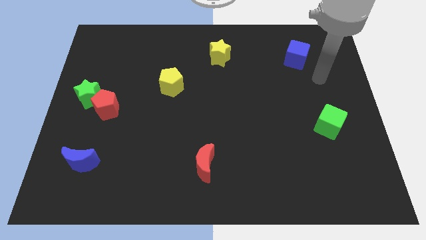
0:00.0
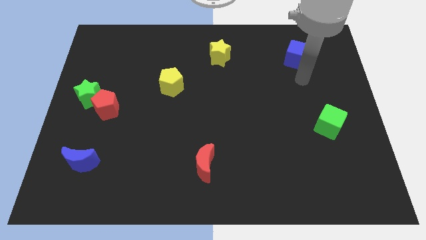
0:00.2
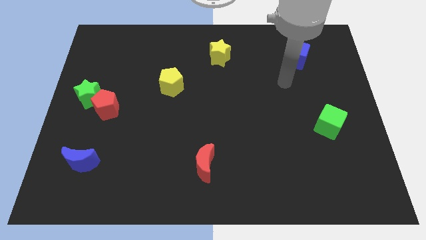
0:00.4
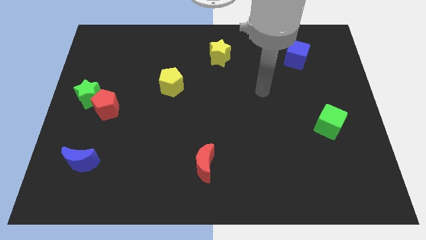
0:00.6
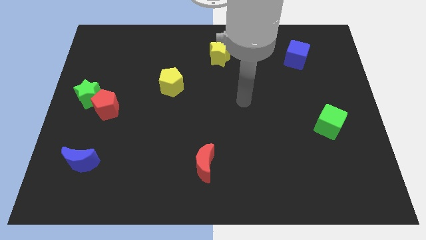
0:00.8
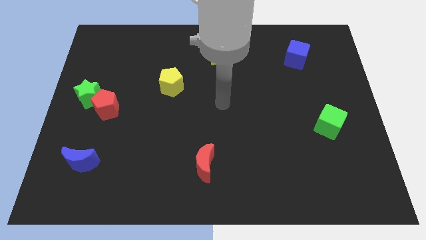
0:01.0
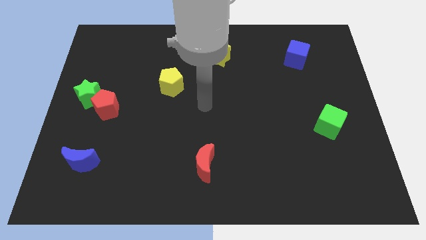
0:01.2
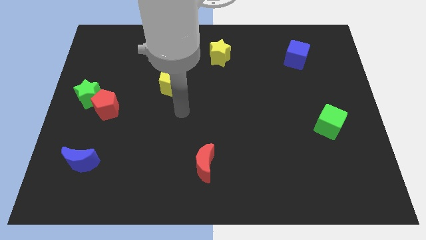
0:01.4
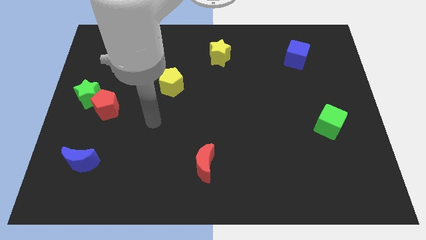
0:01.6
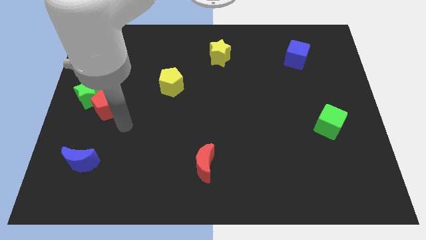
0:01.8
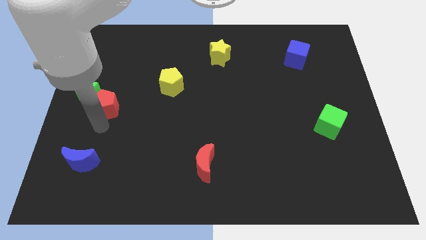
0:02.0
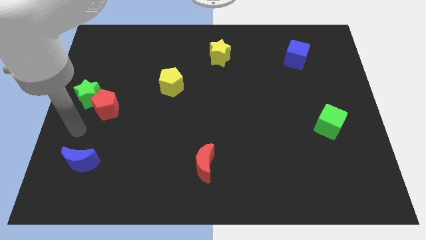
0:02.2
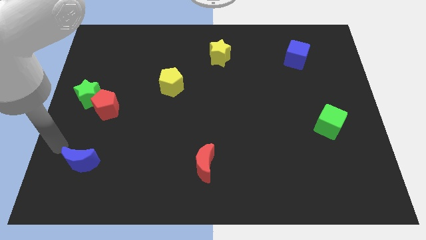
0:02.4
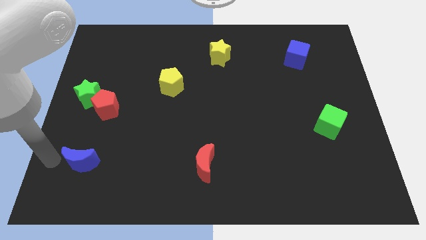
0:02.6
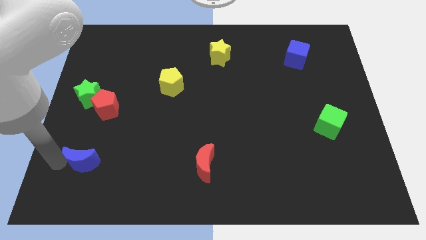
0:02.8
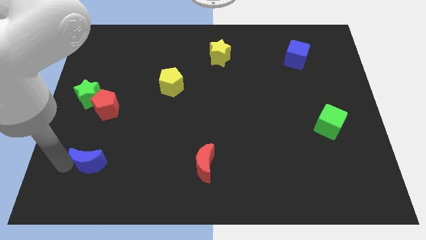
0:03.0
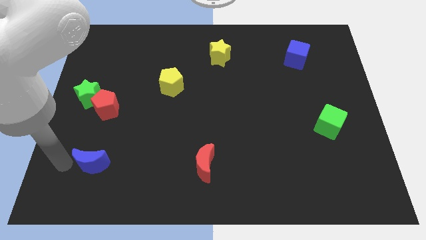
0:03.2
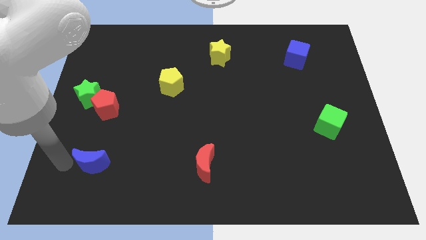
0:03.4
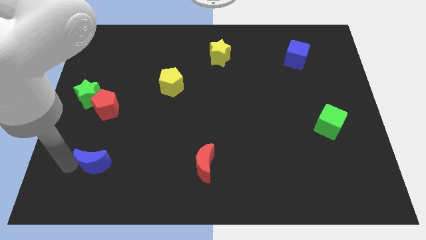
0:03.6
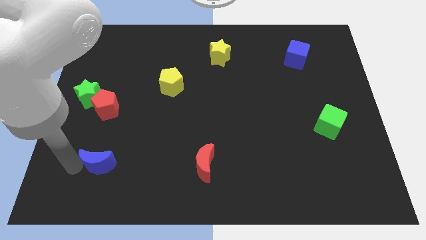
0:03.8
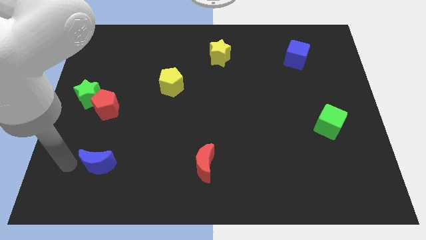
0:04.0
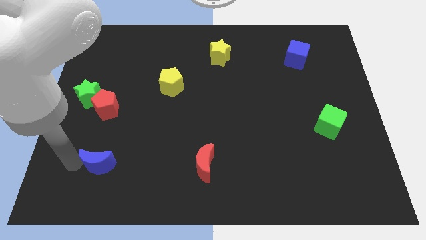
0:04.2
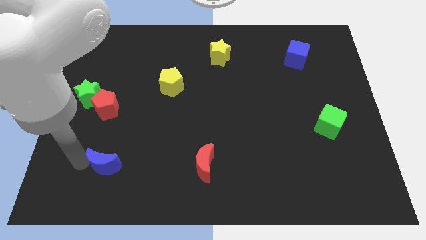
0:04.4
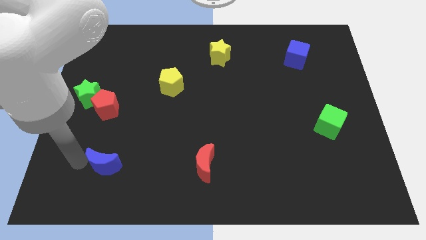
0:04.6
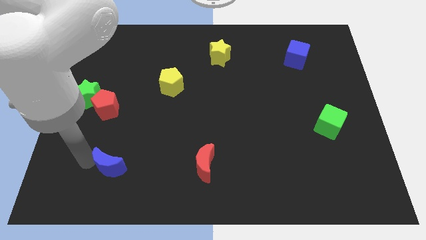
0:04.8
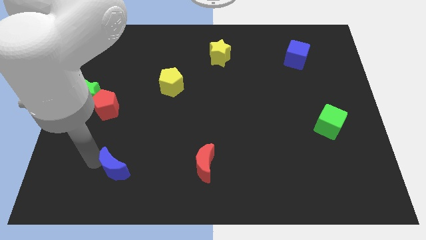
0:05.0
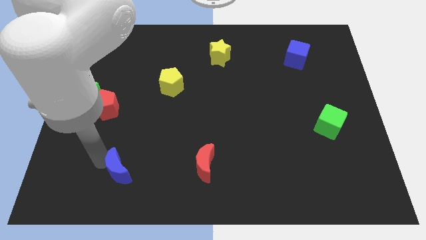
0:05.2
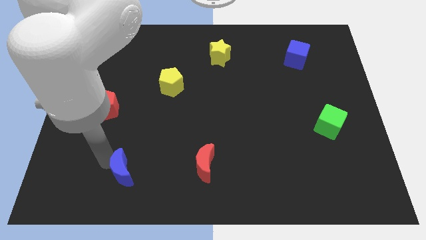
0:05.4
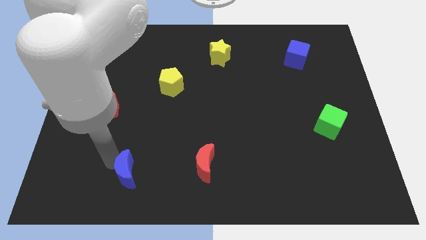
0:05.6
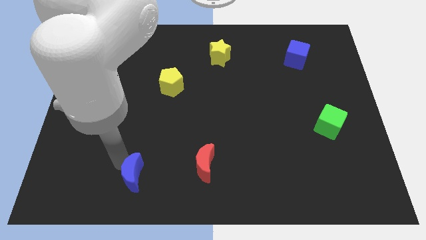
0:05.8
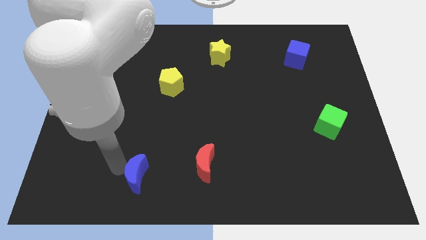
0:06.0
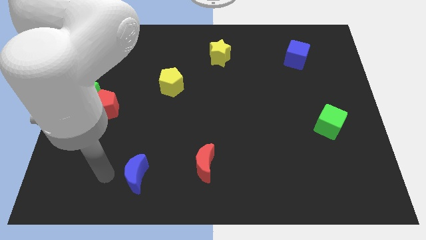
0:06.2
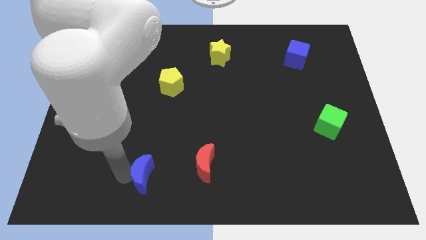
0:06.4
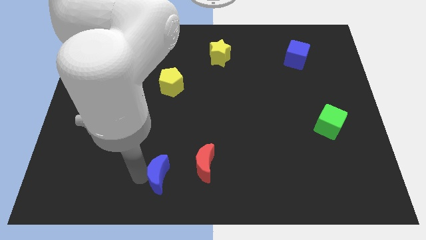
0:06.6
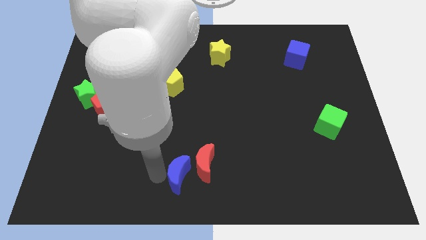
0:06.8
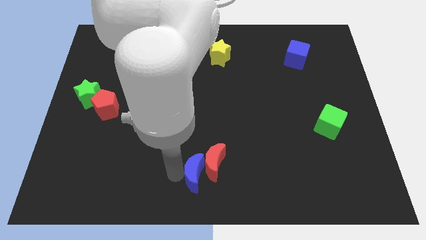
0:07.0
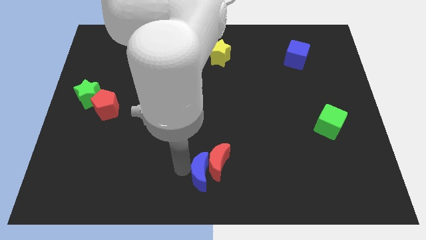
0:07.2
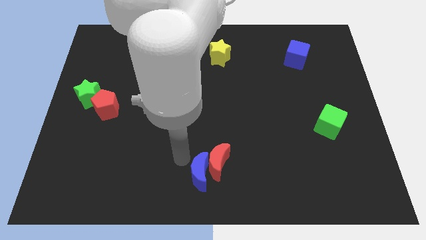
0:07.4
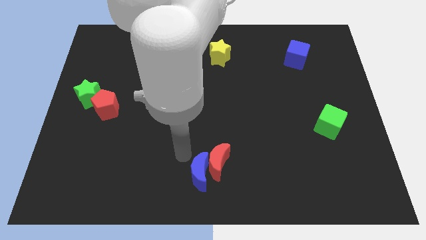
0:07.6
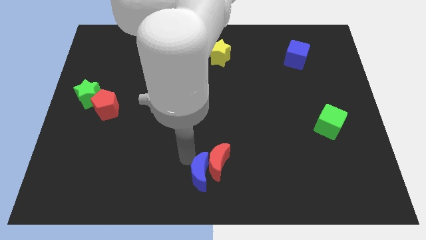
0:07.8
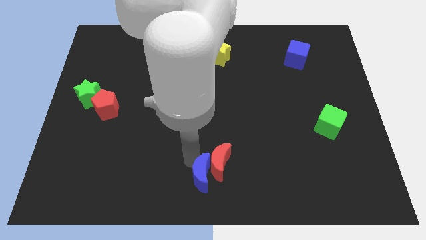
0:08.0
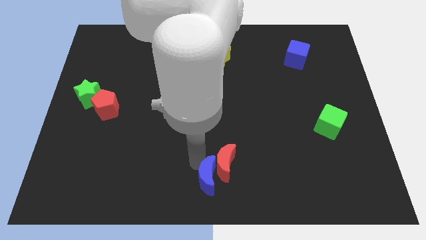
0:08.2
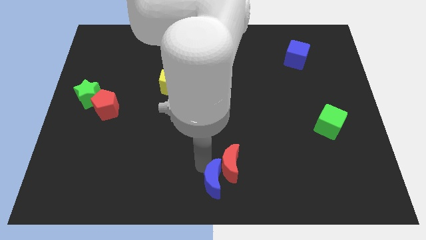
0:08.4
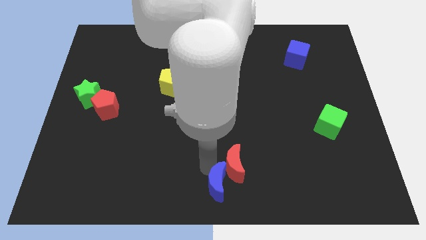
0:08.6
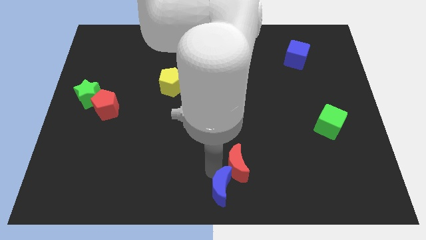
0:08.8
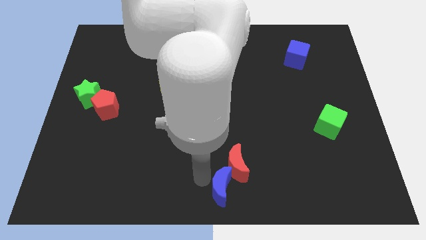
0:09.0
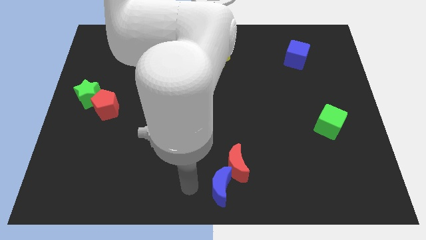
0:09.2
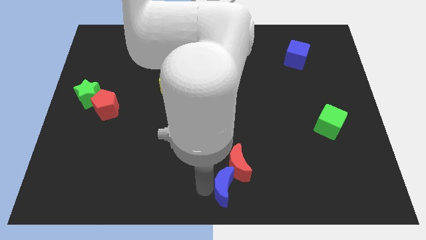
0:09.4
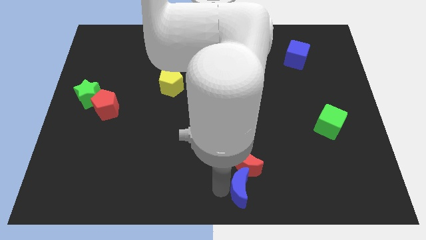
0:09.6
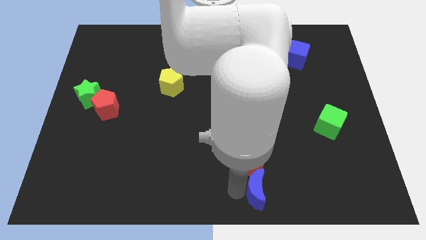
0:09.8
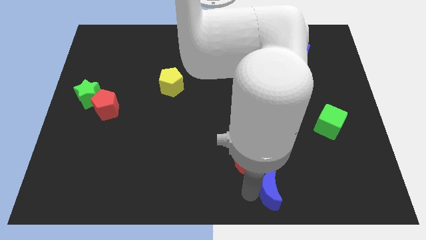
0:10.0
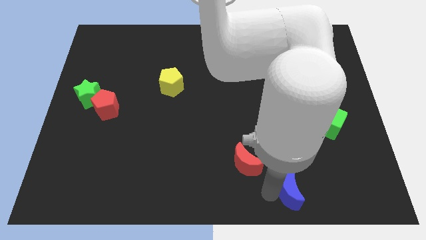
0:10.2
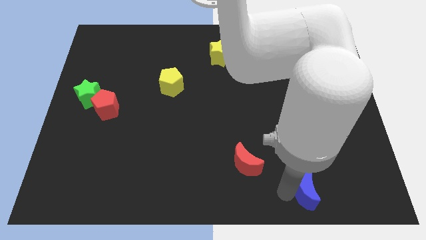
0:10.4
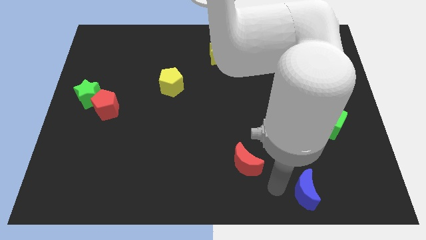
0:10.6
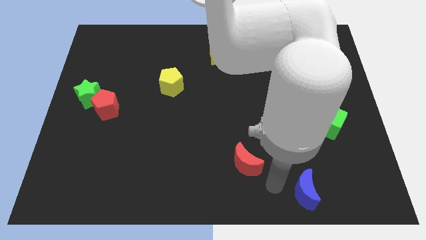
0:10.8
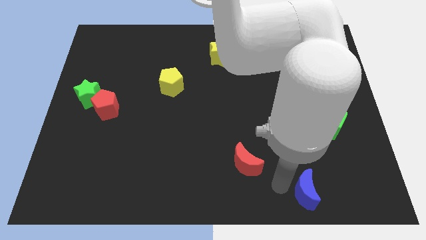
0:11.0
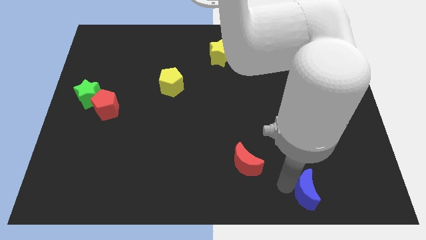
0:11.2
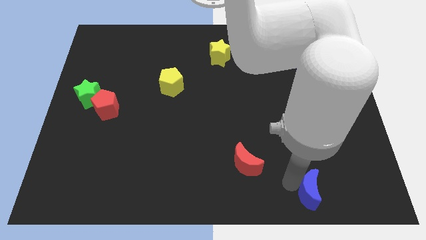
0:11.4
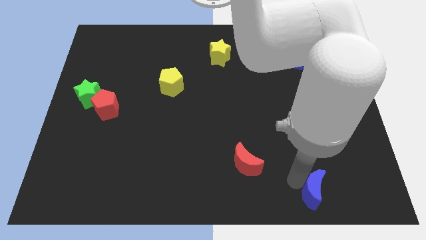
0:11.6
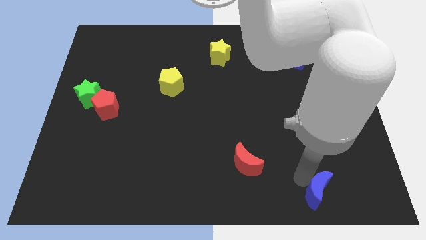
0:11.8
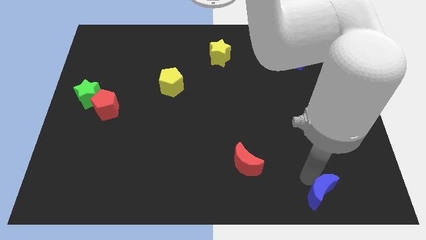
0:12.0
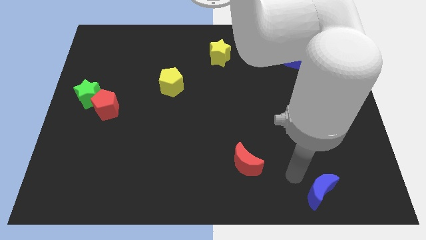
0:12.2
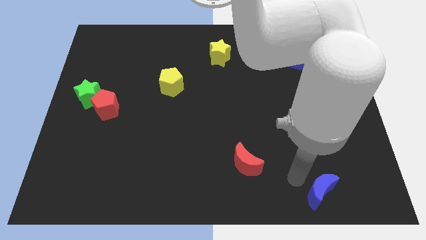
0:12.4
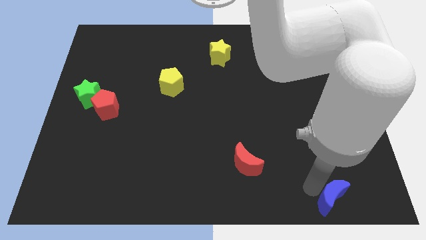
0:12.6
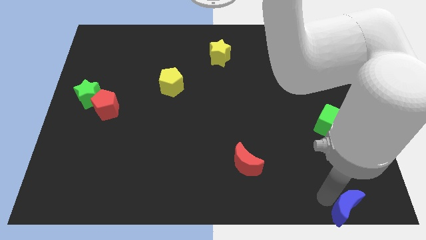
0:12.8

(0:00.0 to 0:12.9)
push the blue moon to the bottom right
